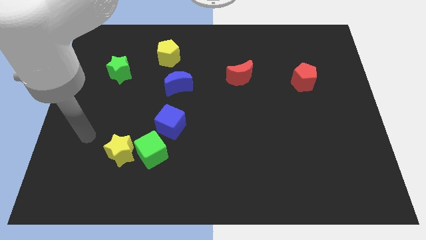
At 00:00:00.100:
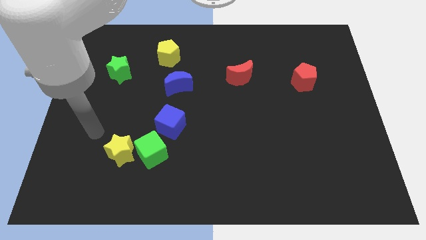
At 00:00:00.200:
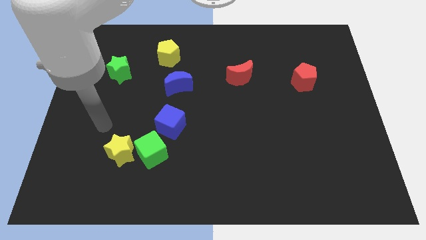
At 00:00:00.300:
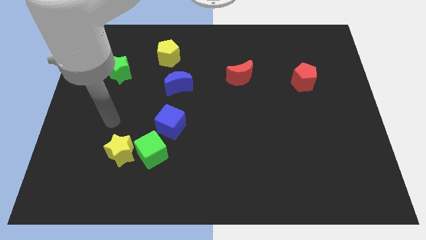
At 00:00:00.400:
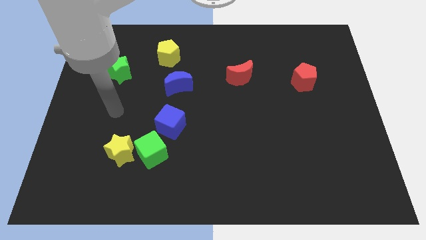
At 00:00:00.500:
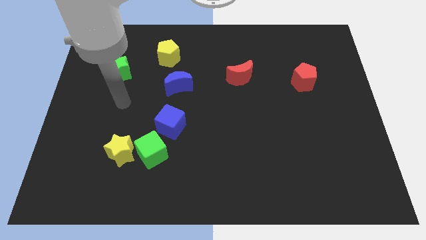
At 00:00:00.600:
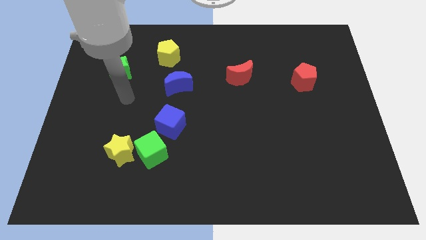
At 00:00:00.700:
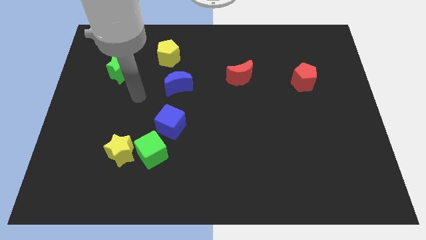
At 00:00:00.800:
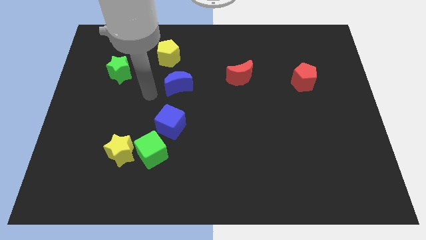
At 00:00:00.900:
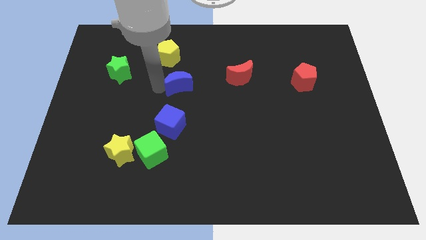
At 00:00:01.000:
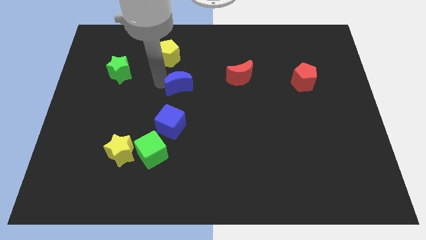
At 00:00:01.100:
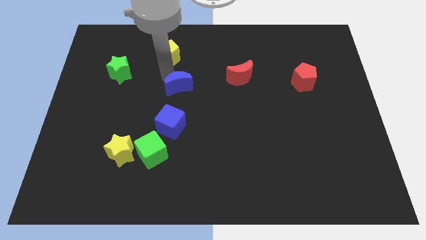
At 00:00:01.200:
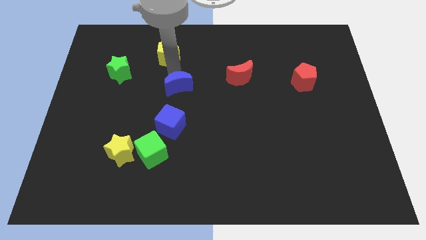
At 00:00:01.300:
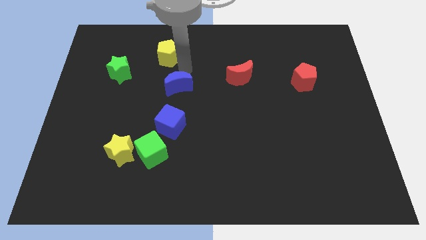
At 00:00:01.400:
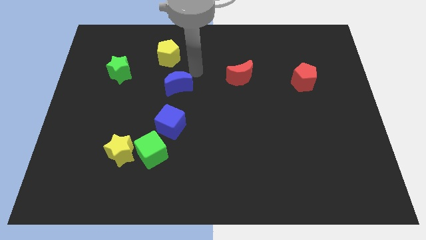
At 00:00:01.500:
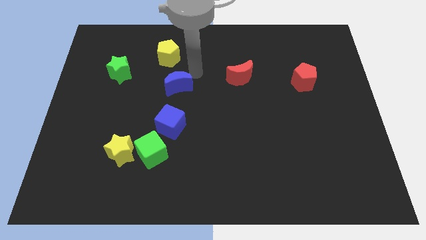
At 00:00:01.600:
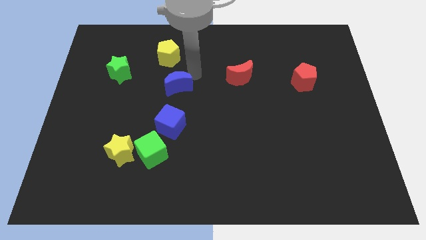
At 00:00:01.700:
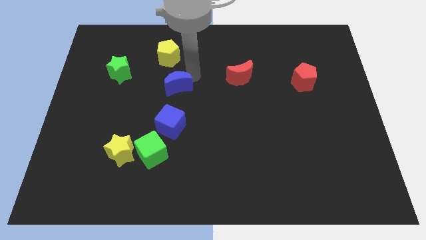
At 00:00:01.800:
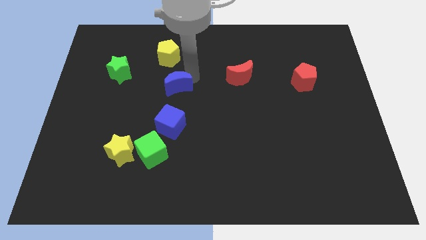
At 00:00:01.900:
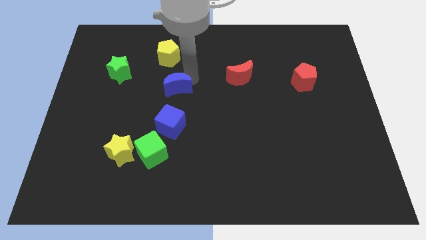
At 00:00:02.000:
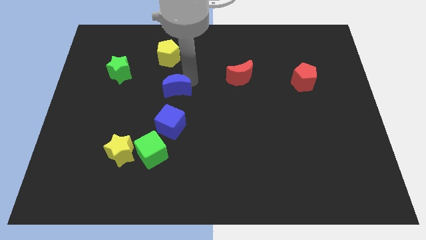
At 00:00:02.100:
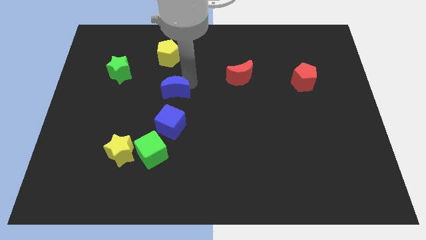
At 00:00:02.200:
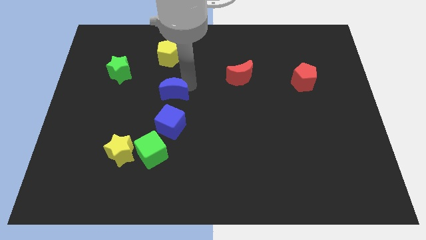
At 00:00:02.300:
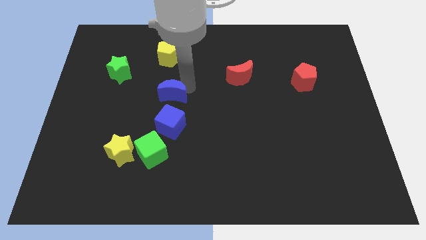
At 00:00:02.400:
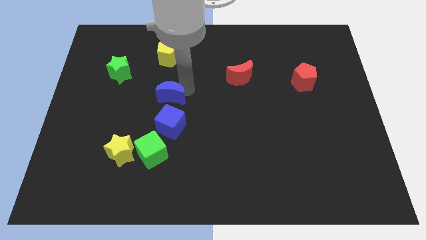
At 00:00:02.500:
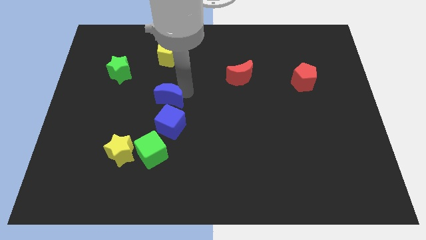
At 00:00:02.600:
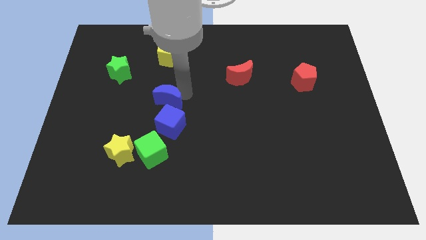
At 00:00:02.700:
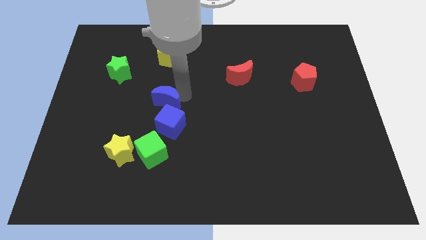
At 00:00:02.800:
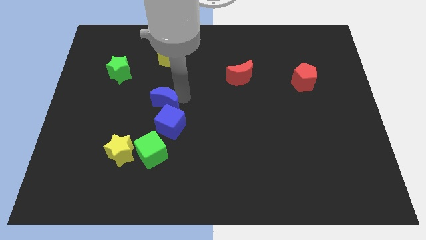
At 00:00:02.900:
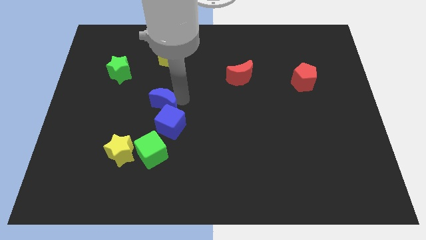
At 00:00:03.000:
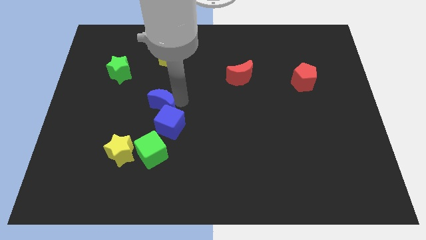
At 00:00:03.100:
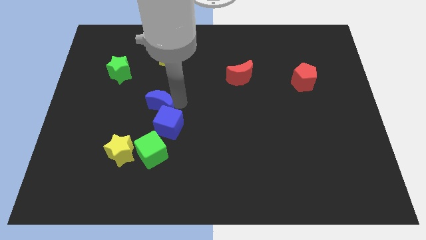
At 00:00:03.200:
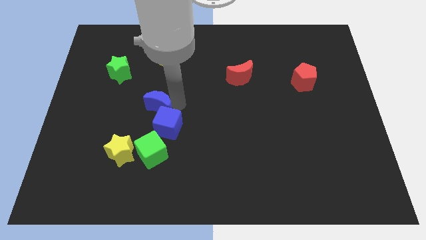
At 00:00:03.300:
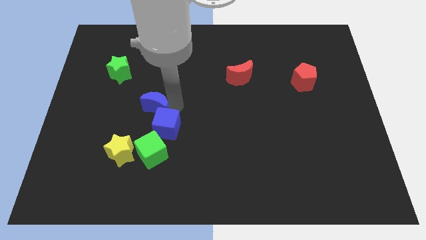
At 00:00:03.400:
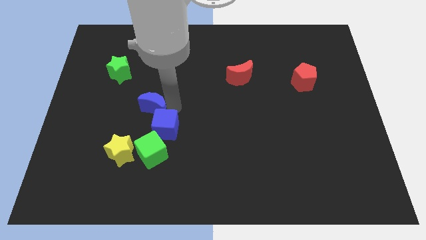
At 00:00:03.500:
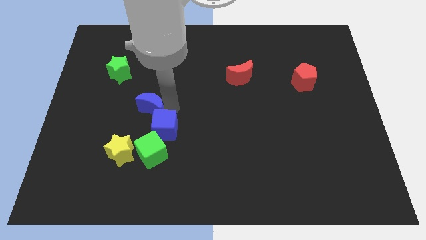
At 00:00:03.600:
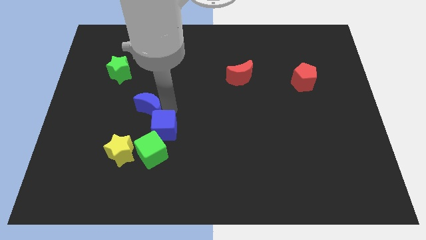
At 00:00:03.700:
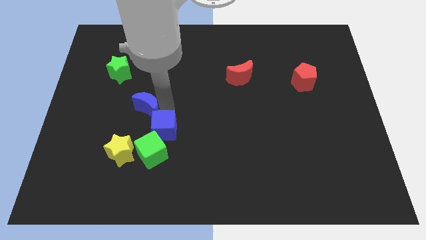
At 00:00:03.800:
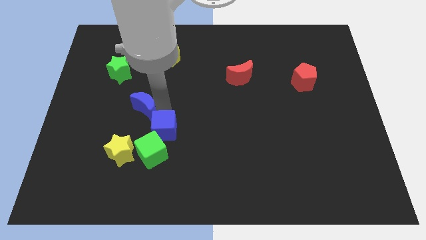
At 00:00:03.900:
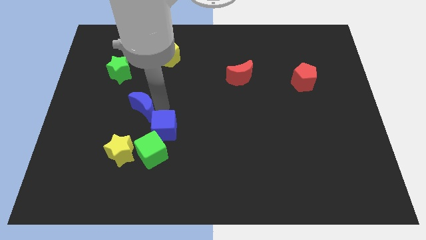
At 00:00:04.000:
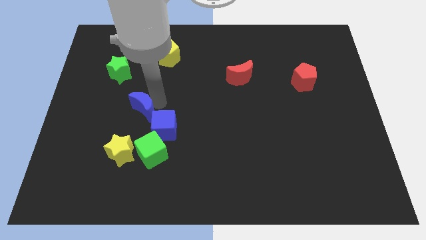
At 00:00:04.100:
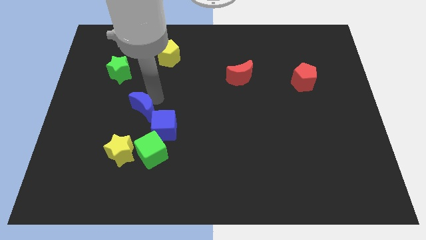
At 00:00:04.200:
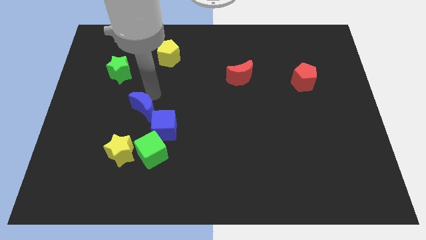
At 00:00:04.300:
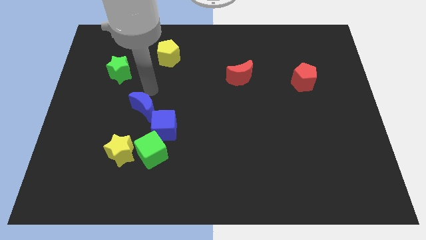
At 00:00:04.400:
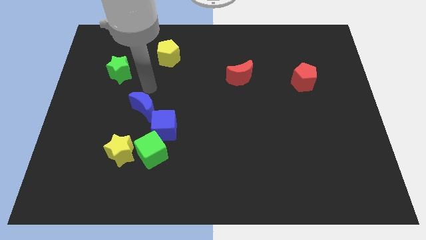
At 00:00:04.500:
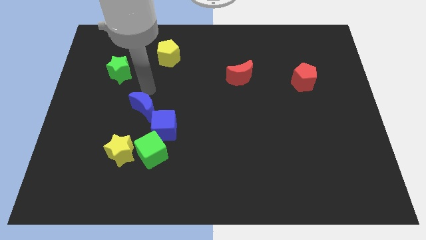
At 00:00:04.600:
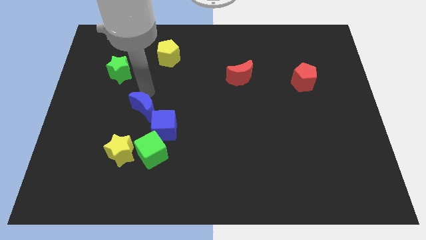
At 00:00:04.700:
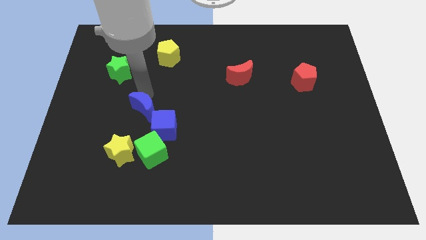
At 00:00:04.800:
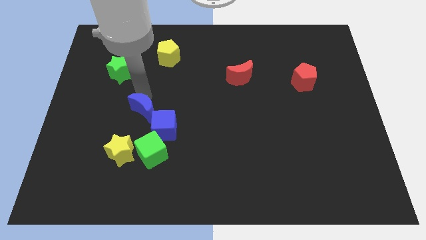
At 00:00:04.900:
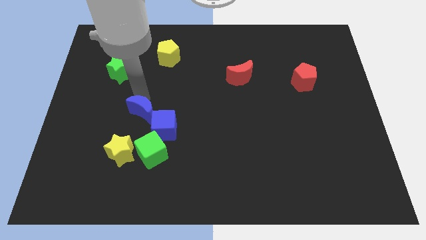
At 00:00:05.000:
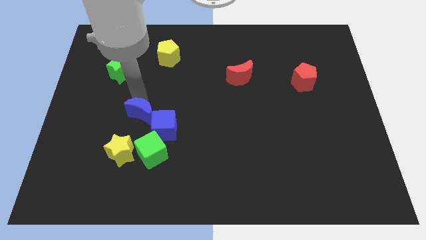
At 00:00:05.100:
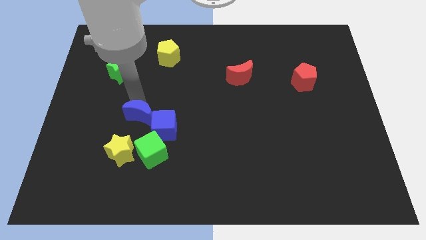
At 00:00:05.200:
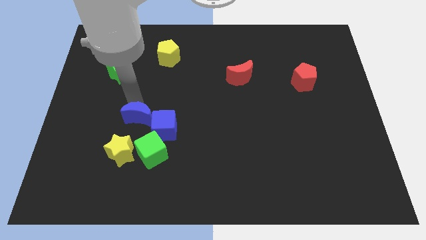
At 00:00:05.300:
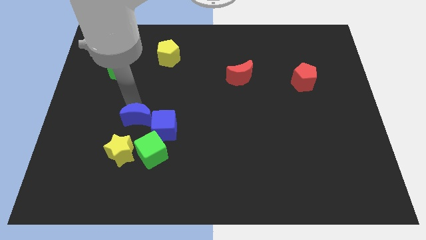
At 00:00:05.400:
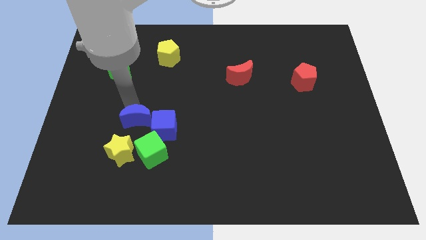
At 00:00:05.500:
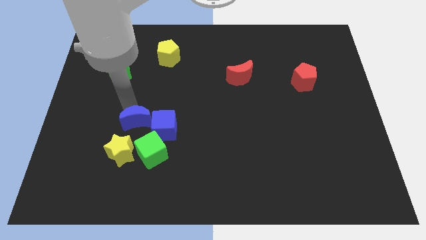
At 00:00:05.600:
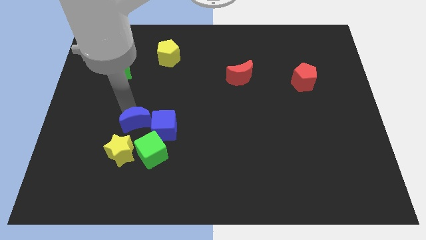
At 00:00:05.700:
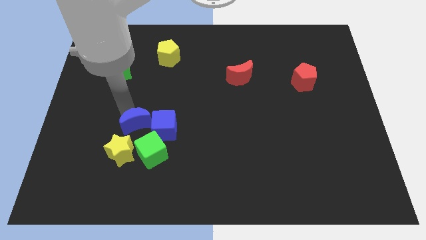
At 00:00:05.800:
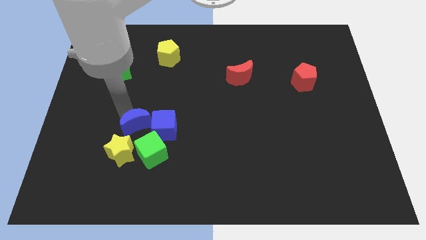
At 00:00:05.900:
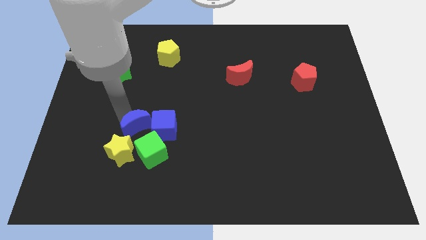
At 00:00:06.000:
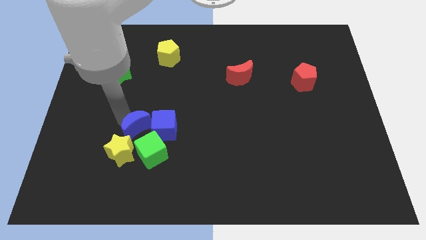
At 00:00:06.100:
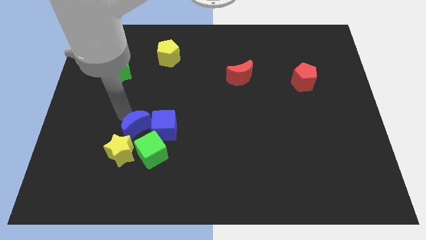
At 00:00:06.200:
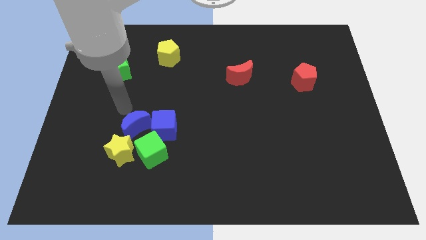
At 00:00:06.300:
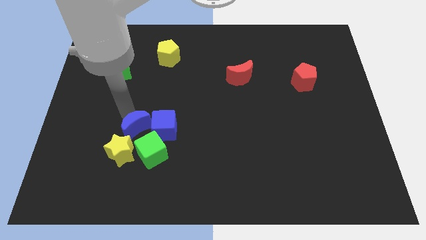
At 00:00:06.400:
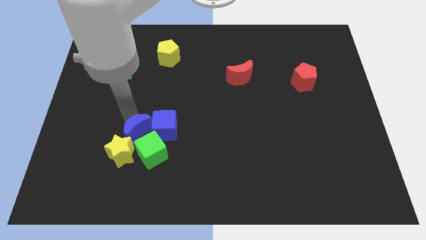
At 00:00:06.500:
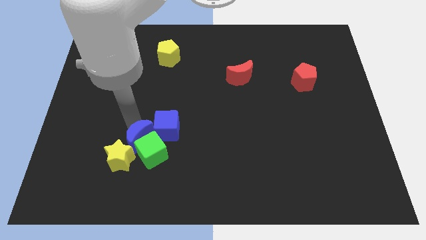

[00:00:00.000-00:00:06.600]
move the blue moon next to the green cube
